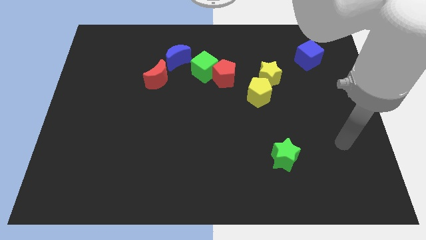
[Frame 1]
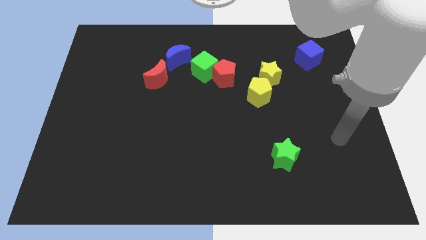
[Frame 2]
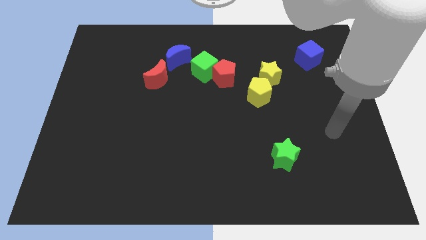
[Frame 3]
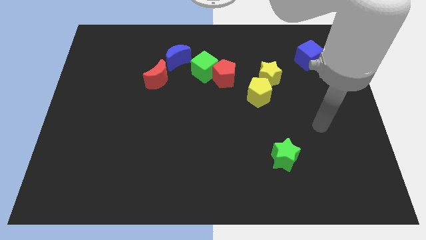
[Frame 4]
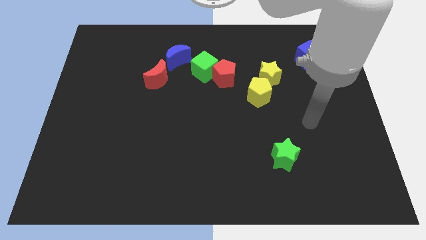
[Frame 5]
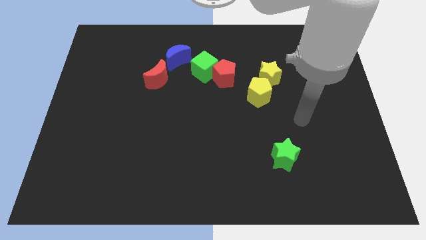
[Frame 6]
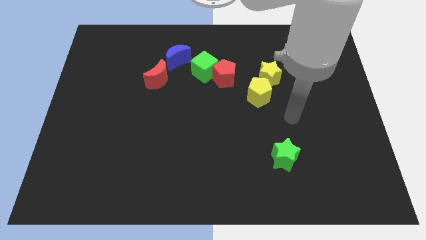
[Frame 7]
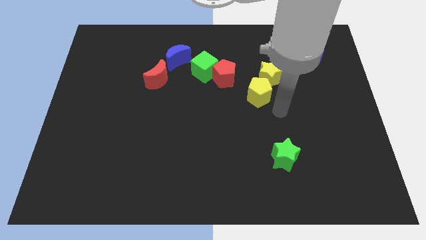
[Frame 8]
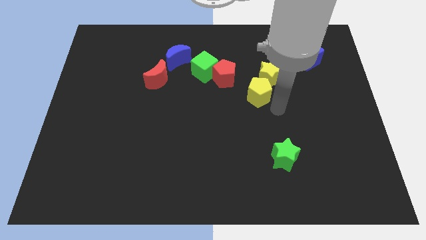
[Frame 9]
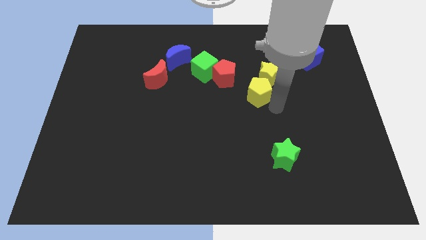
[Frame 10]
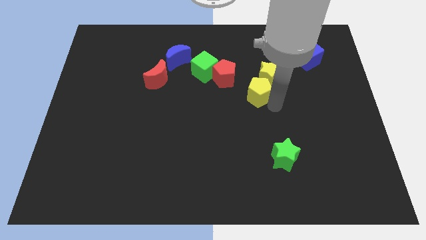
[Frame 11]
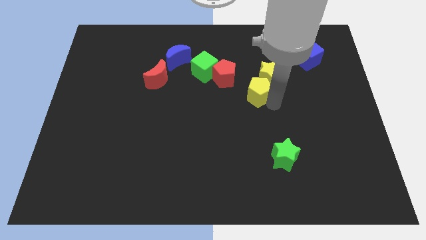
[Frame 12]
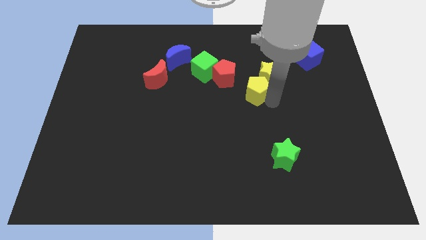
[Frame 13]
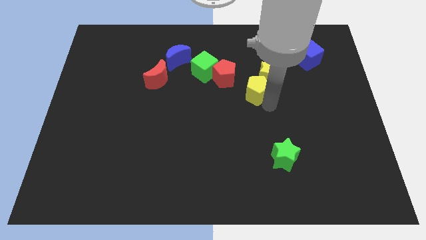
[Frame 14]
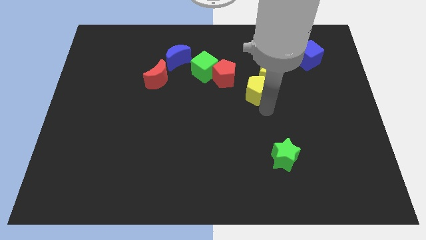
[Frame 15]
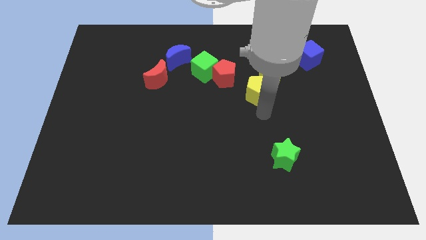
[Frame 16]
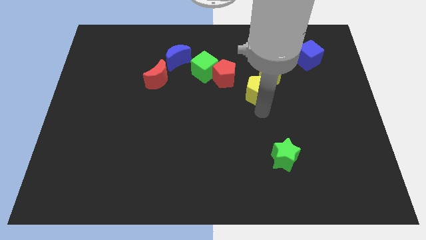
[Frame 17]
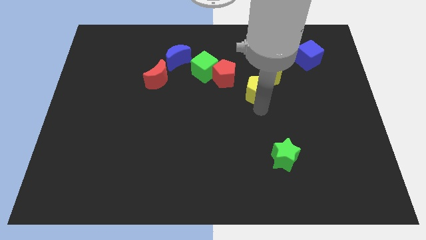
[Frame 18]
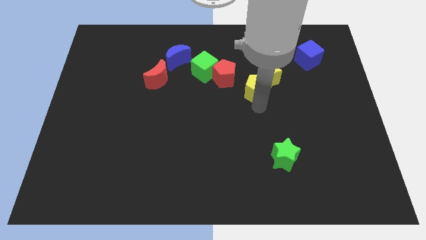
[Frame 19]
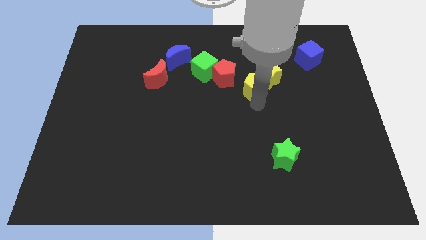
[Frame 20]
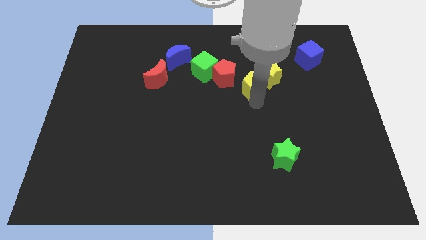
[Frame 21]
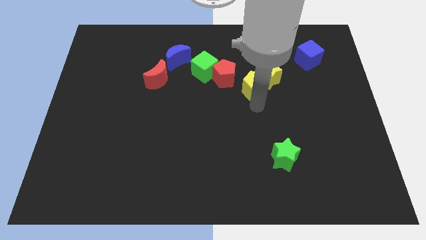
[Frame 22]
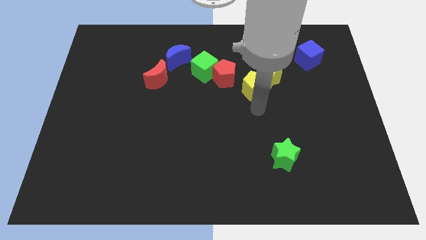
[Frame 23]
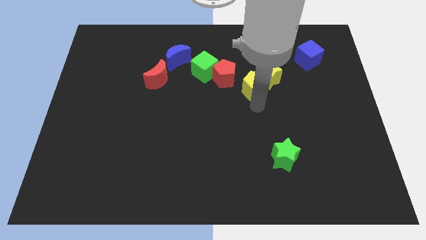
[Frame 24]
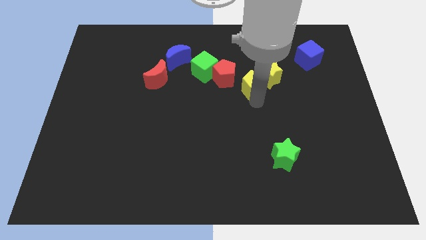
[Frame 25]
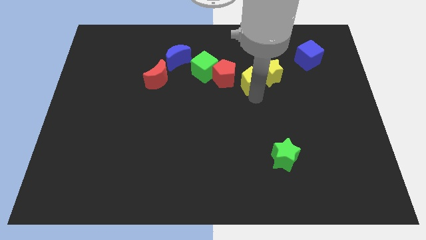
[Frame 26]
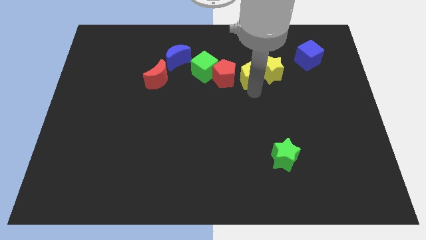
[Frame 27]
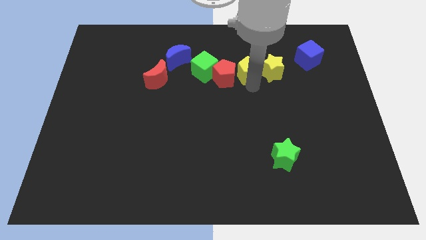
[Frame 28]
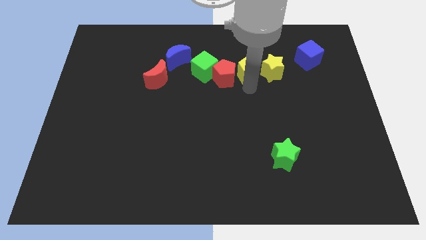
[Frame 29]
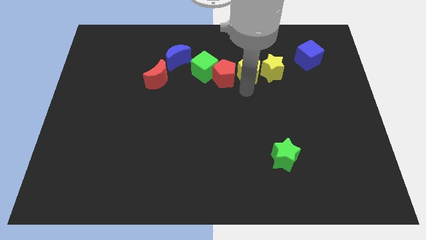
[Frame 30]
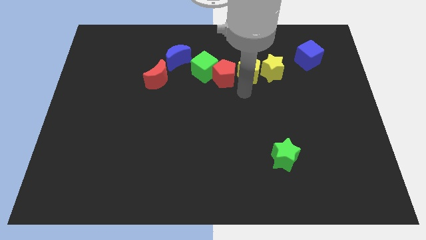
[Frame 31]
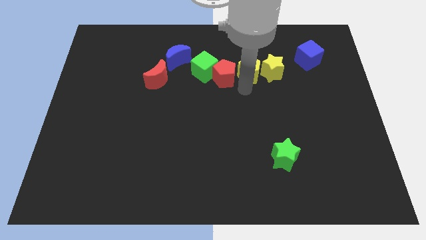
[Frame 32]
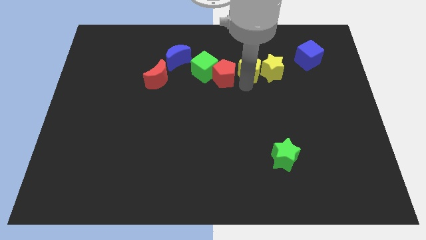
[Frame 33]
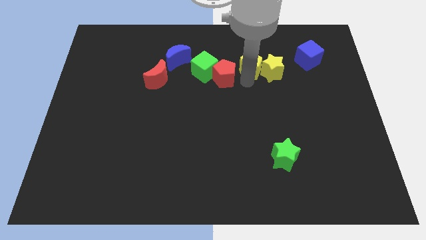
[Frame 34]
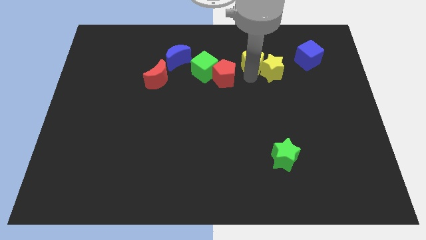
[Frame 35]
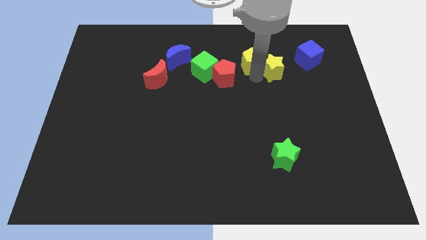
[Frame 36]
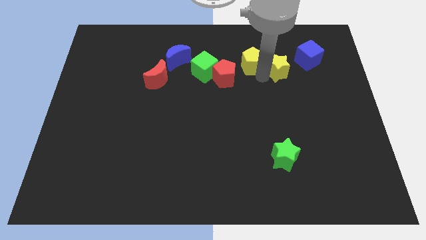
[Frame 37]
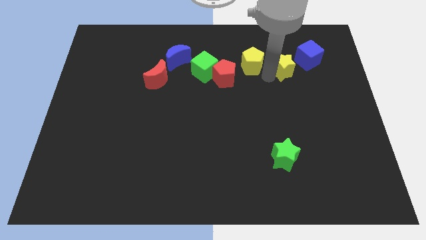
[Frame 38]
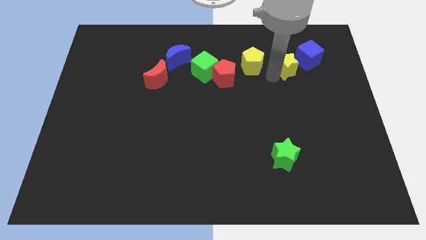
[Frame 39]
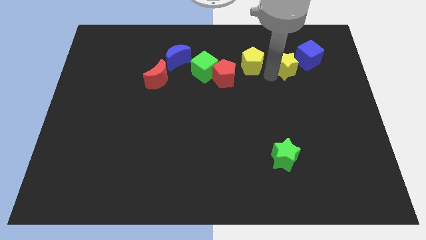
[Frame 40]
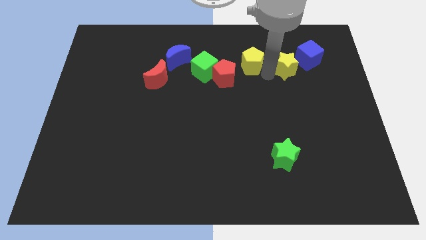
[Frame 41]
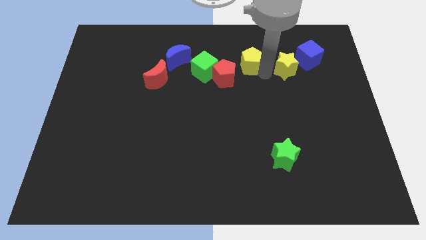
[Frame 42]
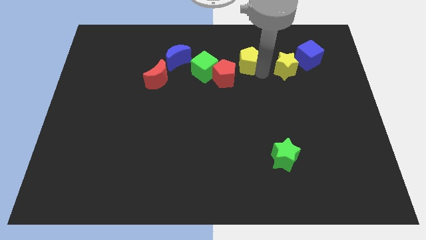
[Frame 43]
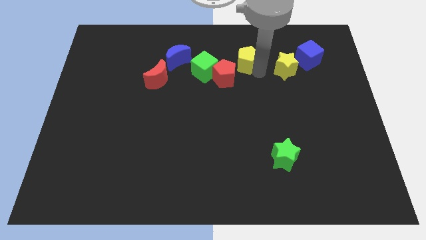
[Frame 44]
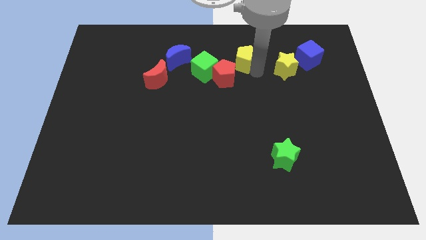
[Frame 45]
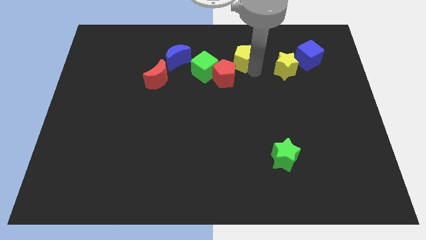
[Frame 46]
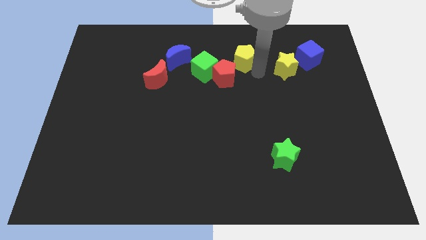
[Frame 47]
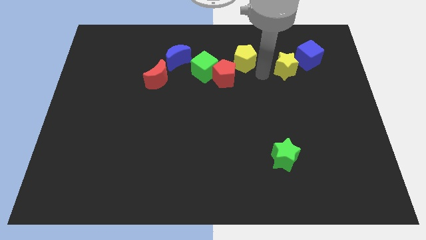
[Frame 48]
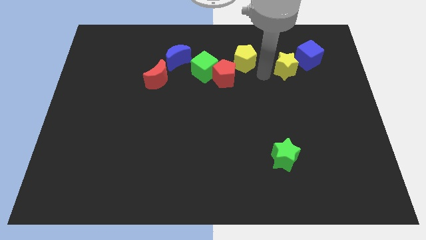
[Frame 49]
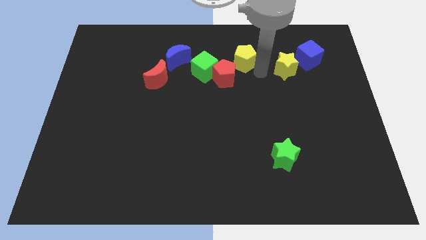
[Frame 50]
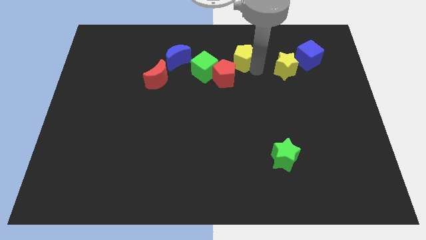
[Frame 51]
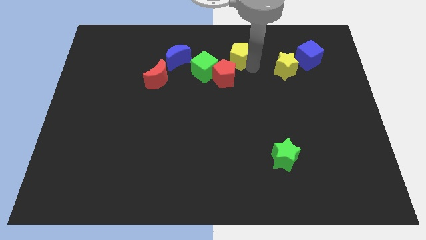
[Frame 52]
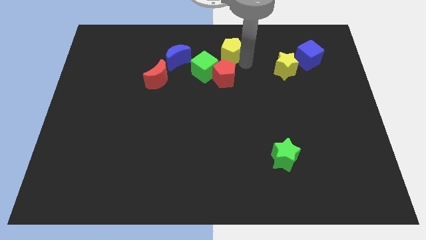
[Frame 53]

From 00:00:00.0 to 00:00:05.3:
slide the yellow pentagon to the towards your base

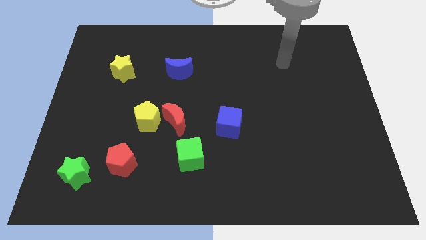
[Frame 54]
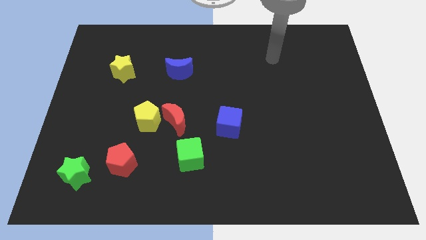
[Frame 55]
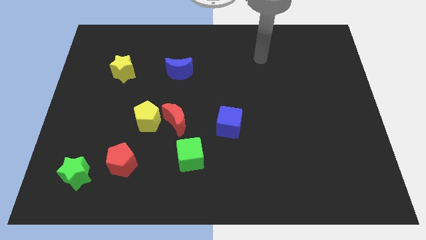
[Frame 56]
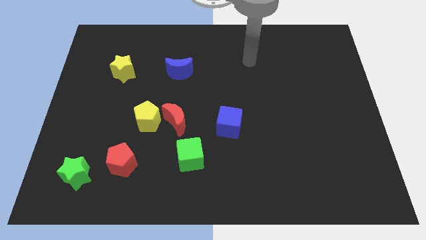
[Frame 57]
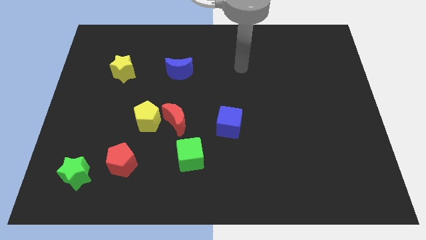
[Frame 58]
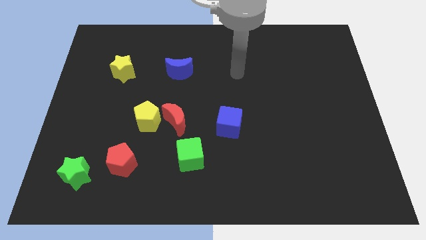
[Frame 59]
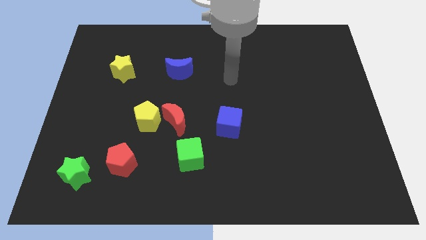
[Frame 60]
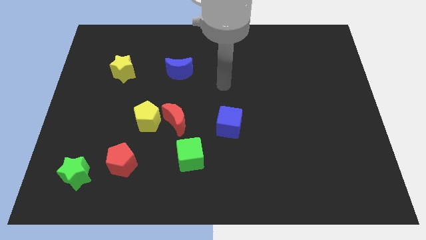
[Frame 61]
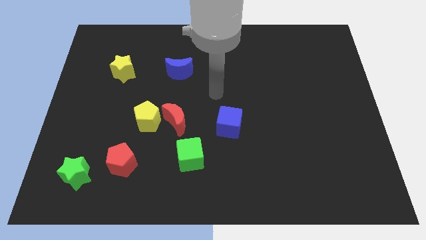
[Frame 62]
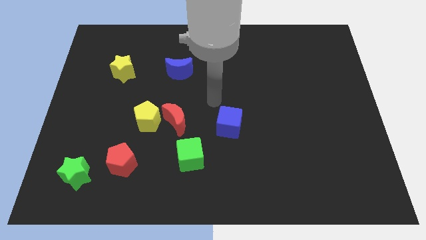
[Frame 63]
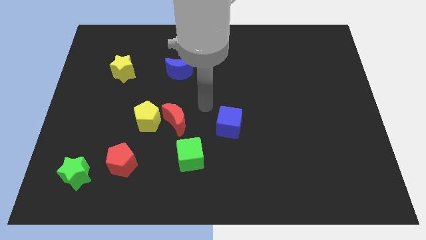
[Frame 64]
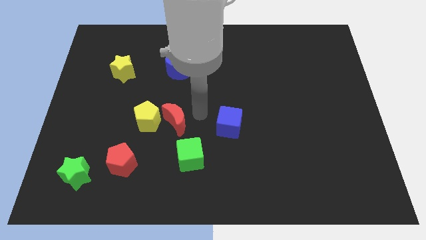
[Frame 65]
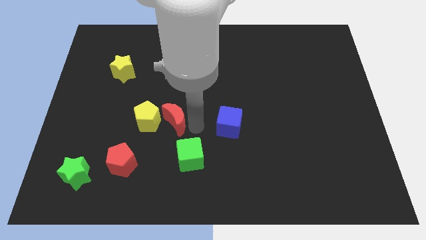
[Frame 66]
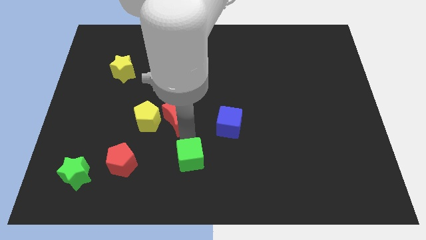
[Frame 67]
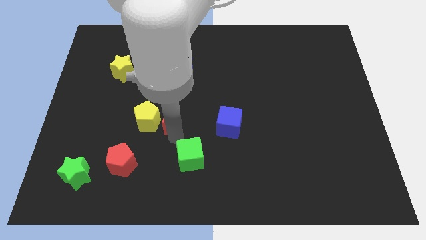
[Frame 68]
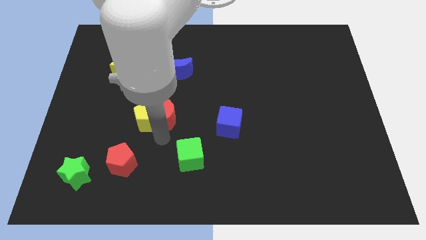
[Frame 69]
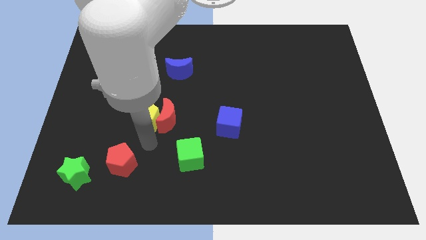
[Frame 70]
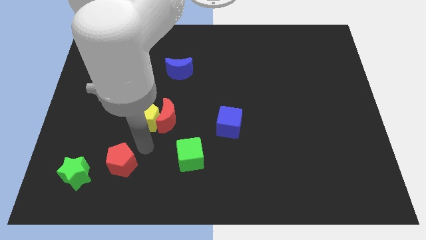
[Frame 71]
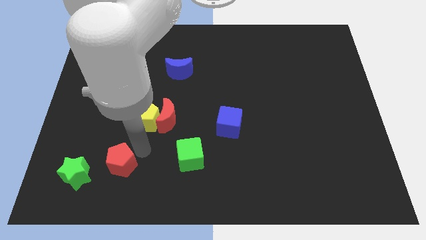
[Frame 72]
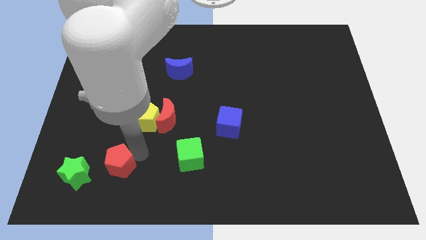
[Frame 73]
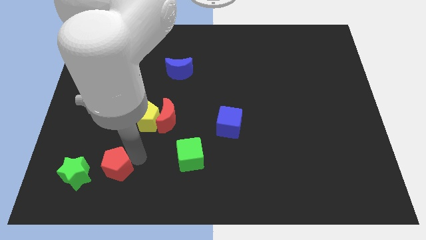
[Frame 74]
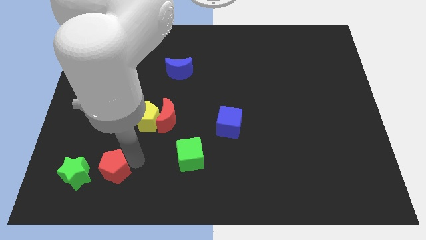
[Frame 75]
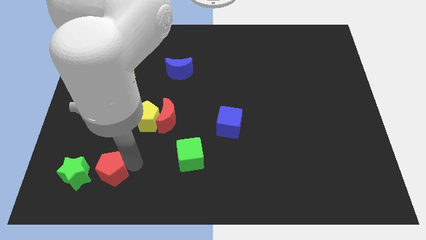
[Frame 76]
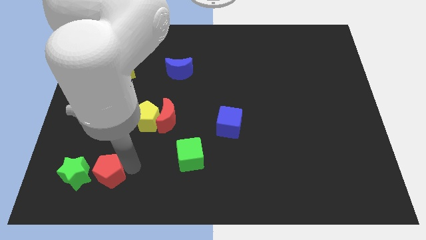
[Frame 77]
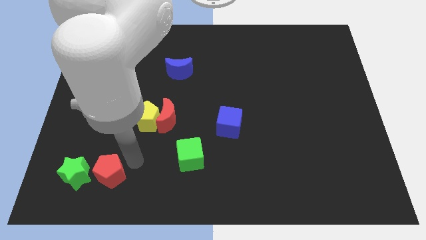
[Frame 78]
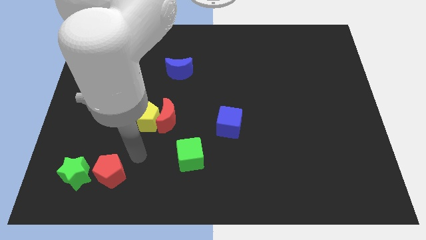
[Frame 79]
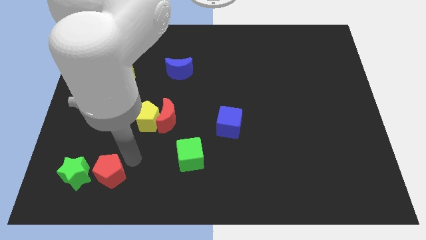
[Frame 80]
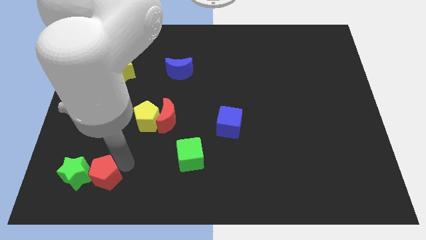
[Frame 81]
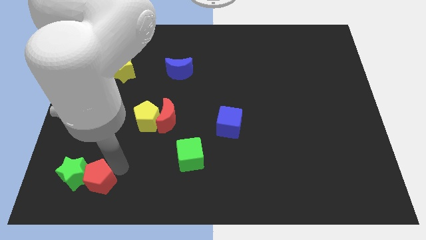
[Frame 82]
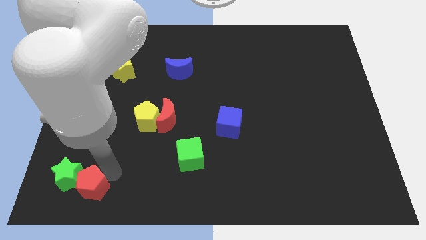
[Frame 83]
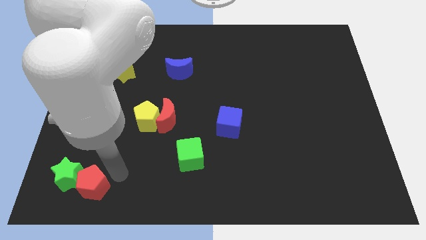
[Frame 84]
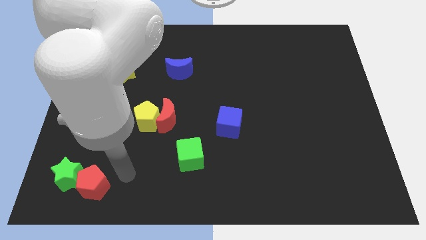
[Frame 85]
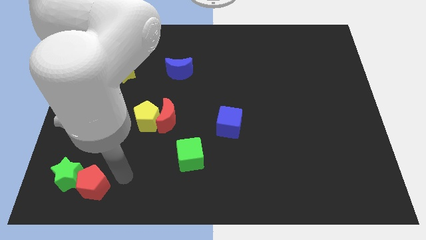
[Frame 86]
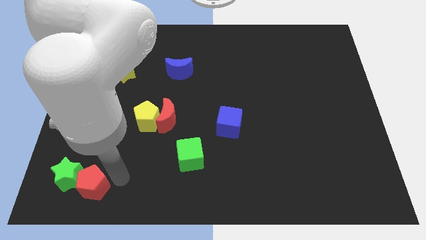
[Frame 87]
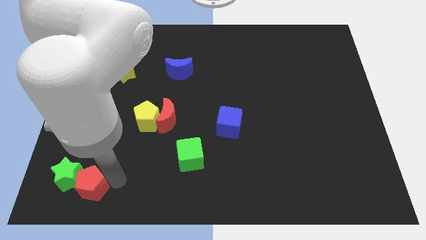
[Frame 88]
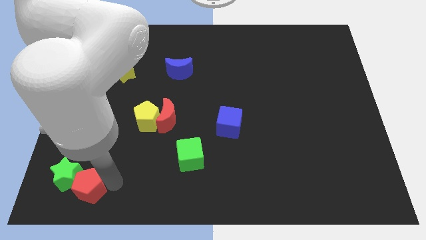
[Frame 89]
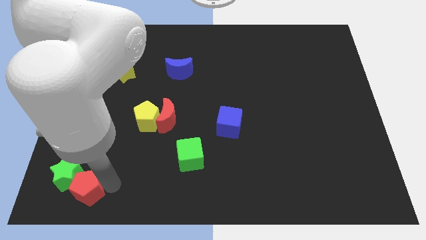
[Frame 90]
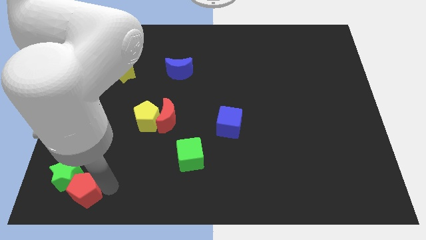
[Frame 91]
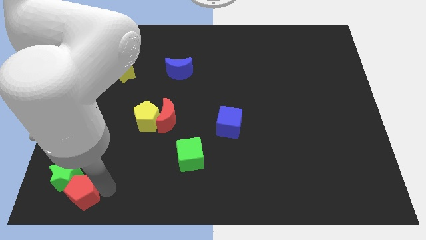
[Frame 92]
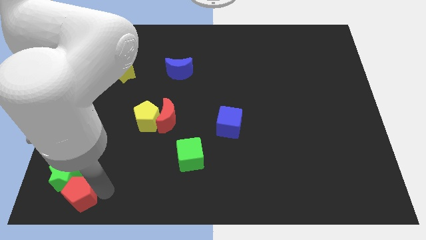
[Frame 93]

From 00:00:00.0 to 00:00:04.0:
push the red pentagon to the bottom left
